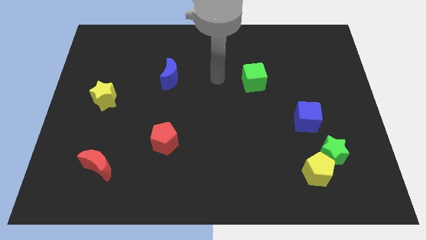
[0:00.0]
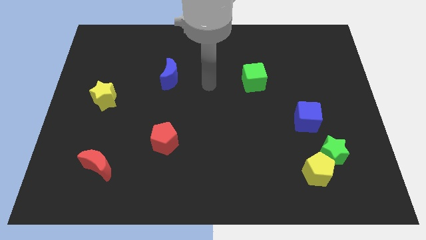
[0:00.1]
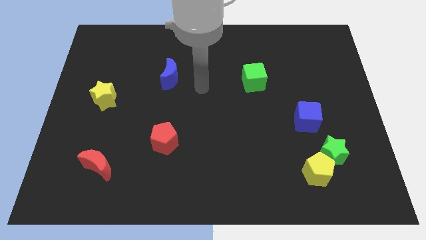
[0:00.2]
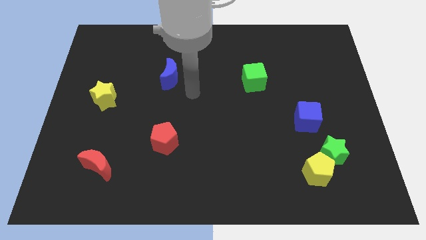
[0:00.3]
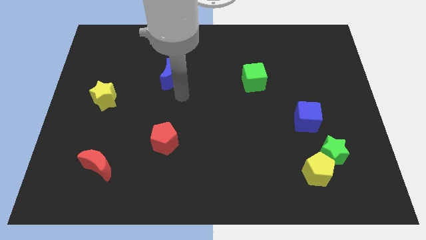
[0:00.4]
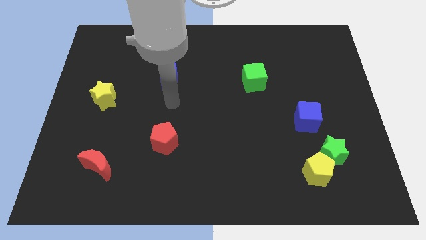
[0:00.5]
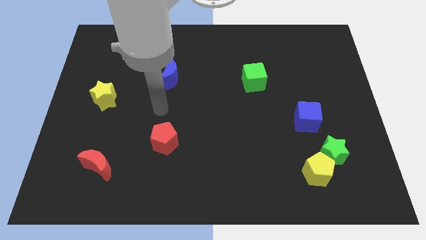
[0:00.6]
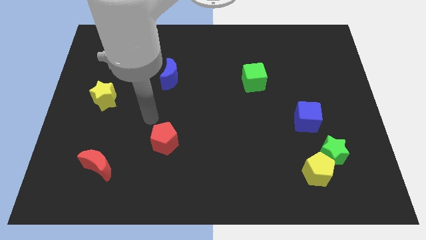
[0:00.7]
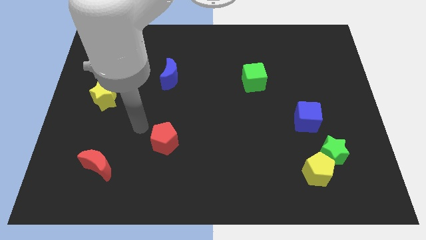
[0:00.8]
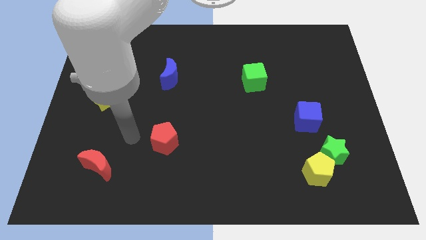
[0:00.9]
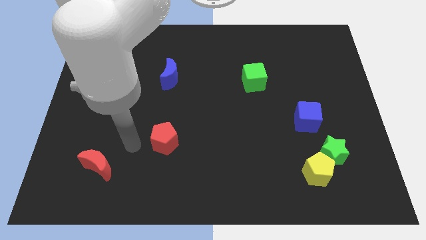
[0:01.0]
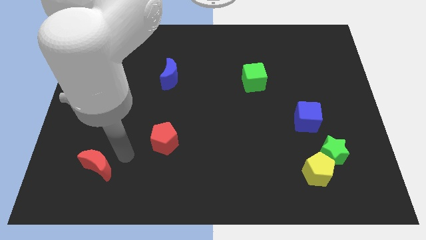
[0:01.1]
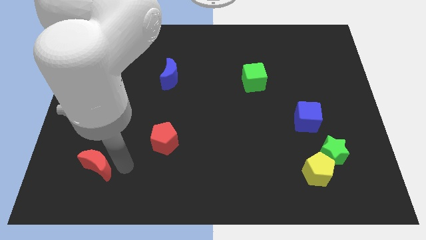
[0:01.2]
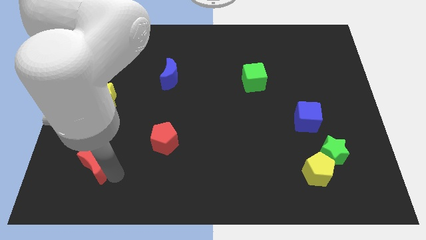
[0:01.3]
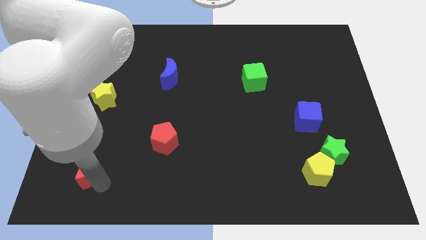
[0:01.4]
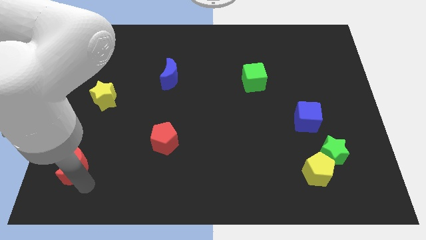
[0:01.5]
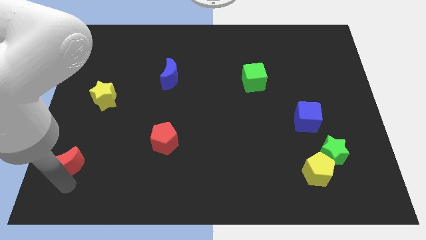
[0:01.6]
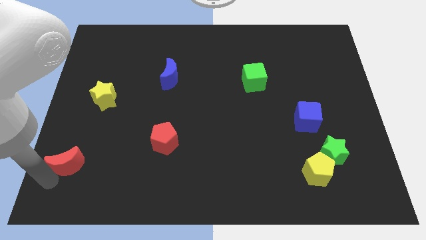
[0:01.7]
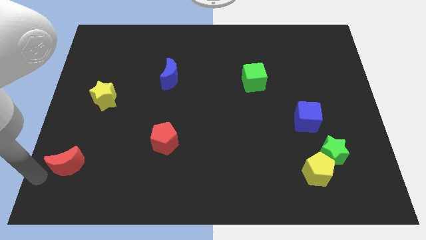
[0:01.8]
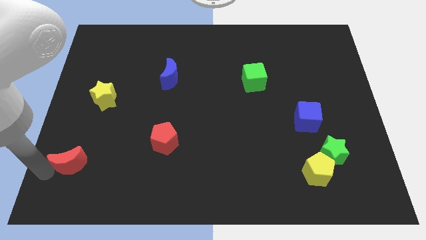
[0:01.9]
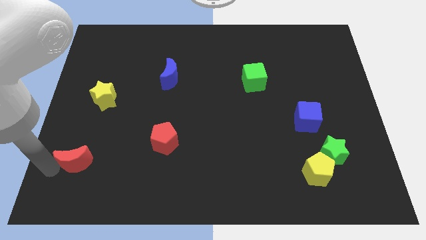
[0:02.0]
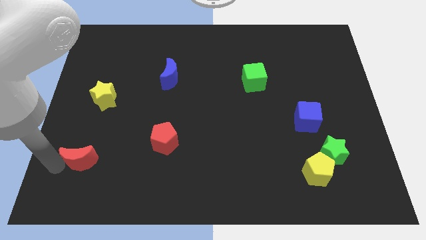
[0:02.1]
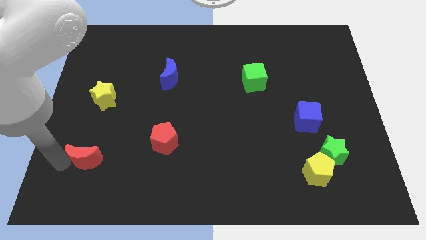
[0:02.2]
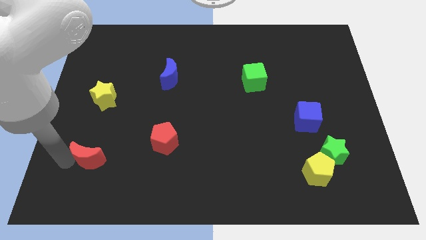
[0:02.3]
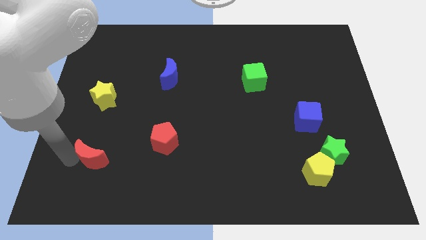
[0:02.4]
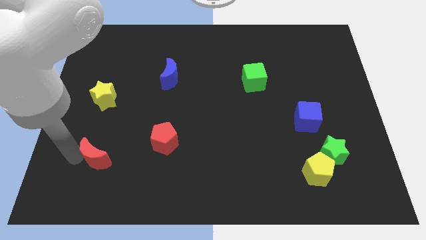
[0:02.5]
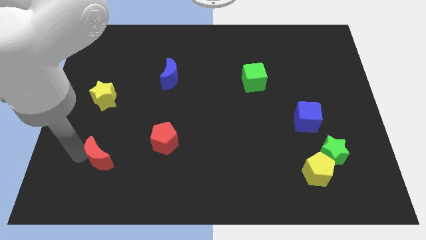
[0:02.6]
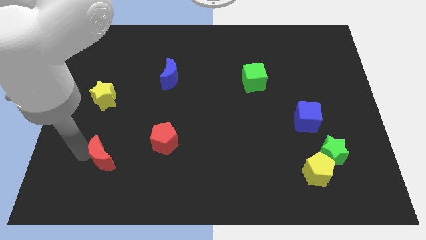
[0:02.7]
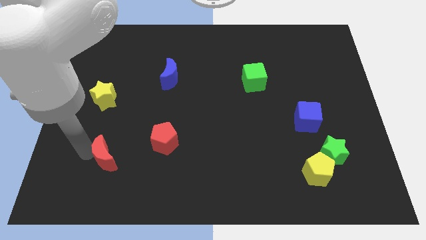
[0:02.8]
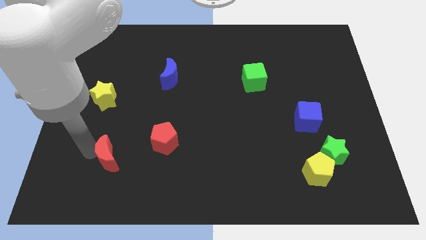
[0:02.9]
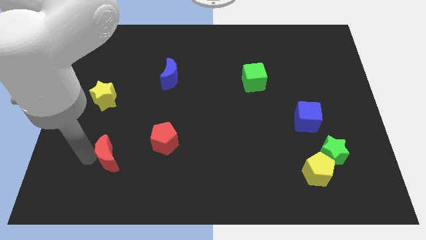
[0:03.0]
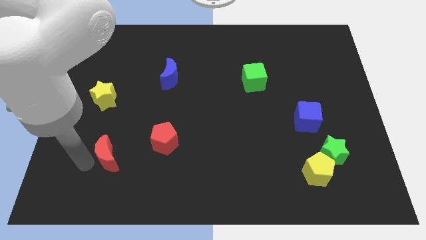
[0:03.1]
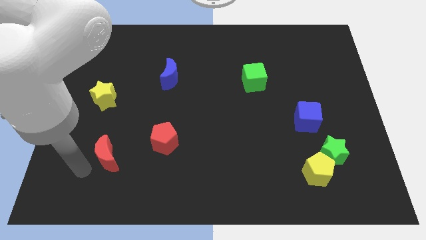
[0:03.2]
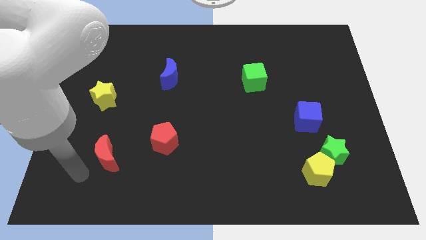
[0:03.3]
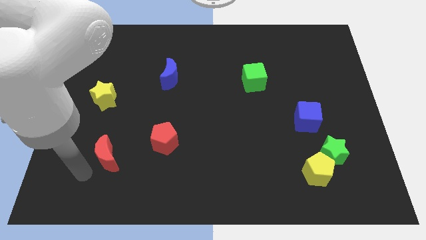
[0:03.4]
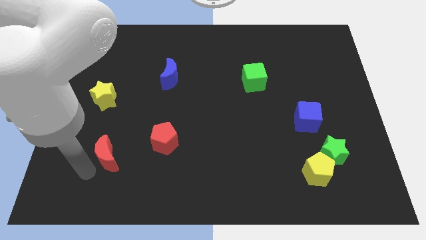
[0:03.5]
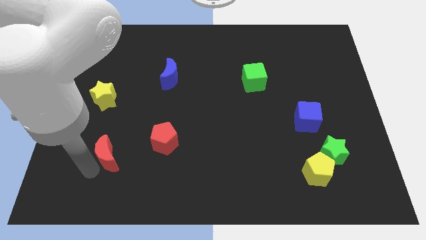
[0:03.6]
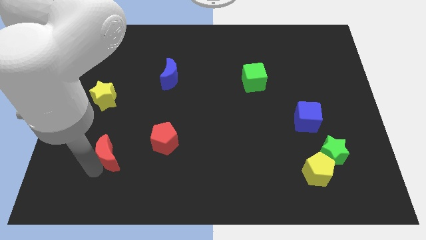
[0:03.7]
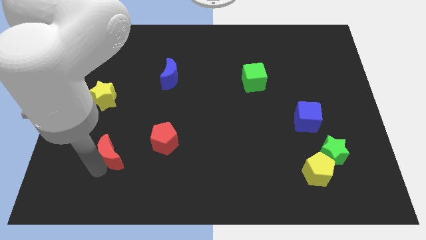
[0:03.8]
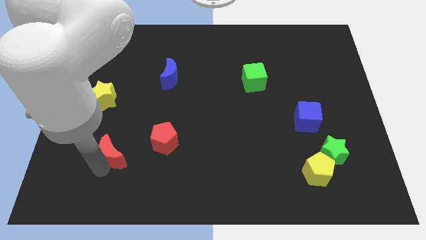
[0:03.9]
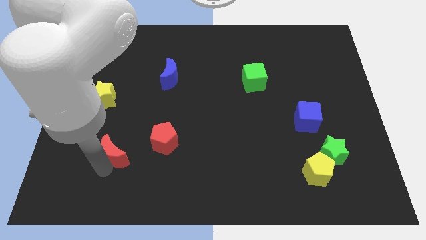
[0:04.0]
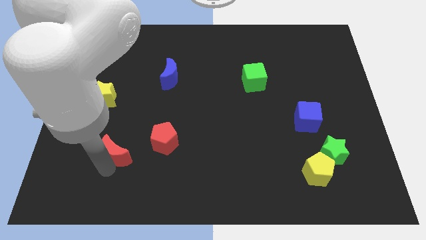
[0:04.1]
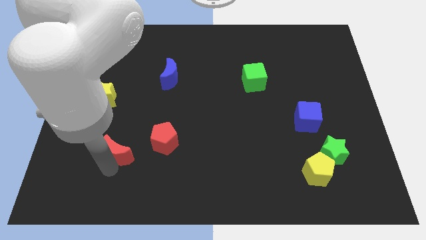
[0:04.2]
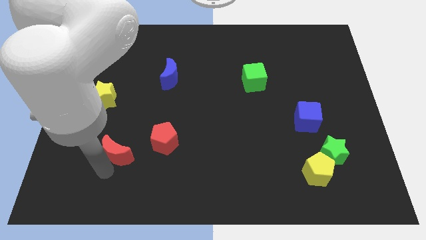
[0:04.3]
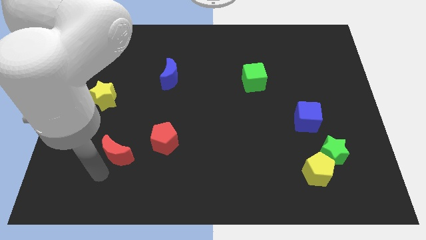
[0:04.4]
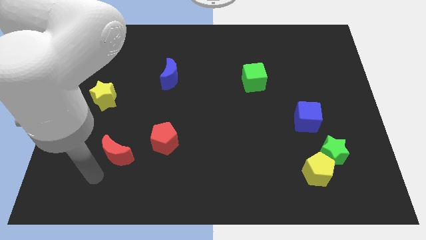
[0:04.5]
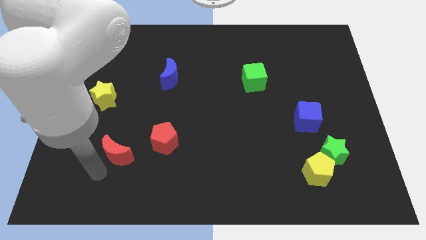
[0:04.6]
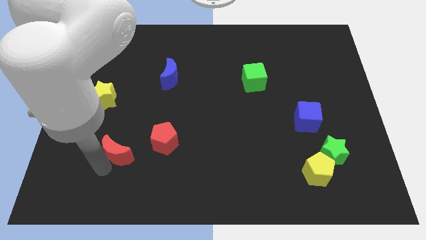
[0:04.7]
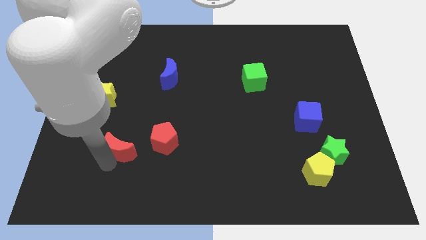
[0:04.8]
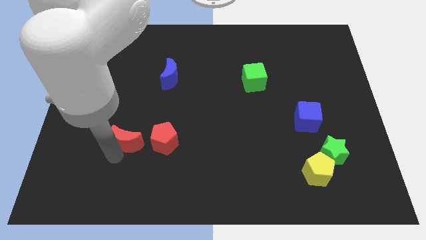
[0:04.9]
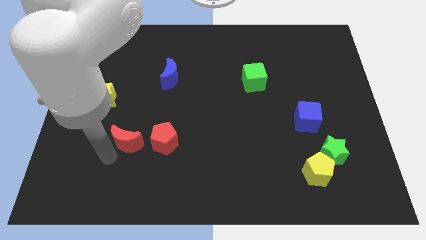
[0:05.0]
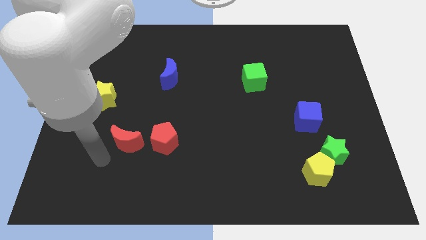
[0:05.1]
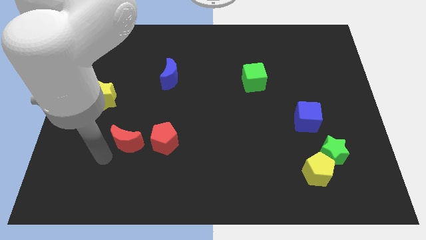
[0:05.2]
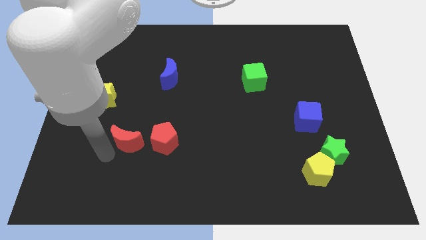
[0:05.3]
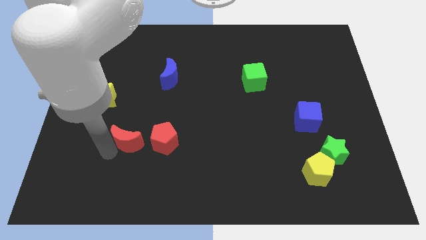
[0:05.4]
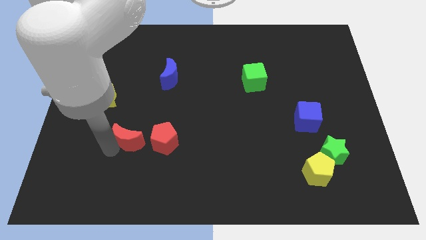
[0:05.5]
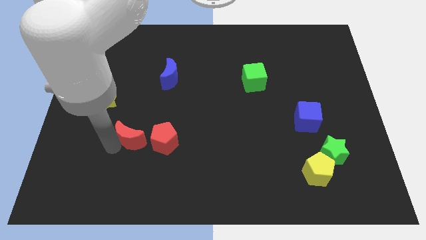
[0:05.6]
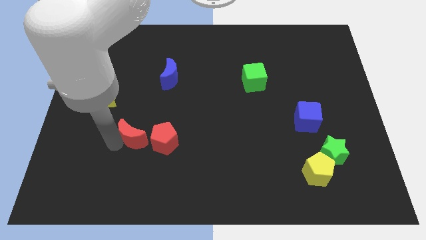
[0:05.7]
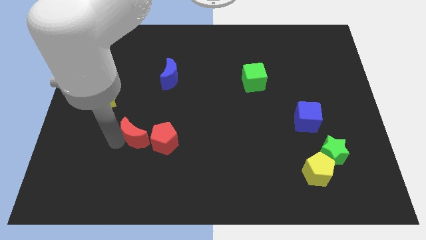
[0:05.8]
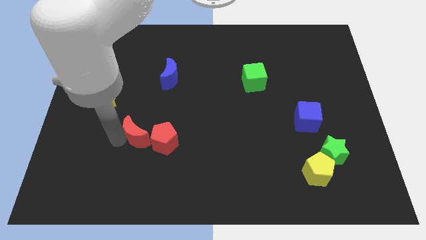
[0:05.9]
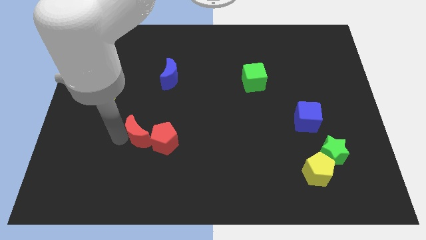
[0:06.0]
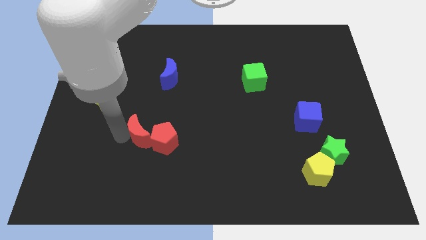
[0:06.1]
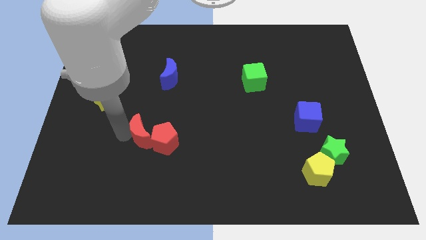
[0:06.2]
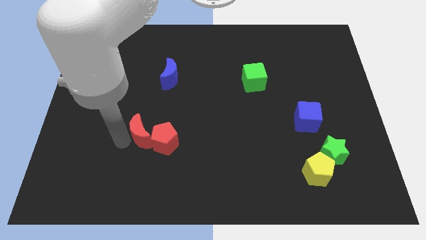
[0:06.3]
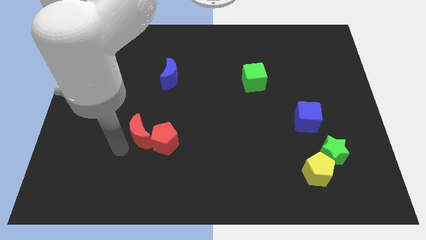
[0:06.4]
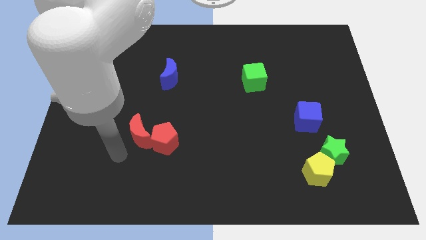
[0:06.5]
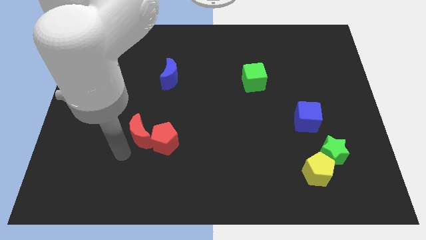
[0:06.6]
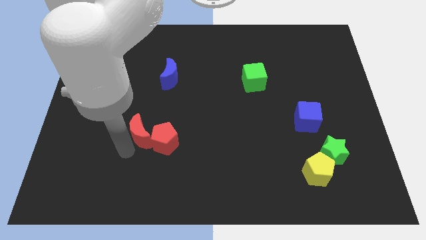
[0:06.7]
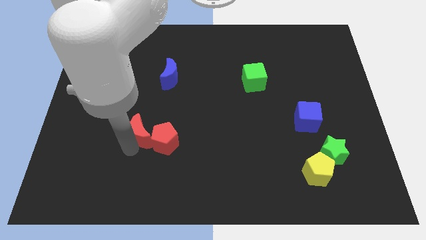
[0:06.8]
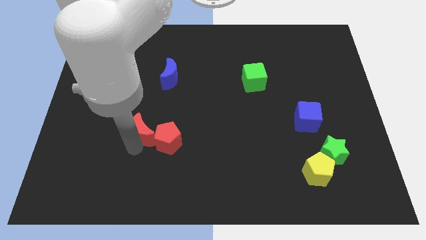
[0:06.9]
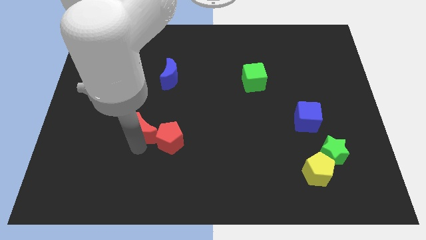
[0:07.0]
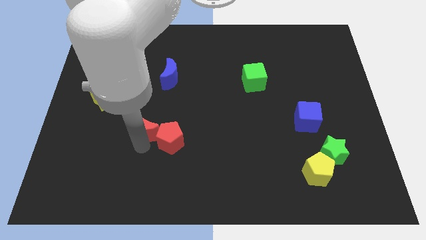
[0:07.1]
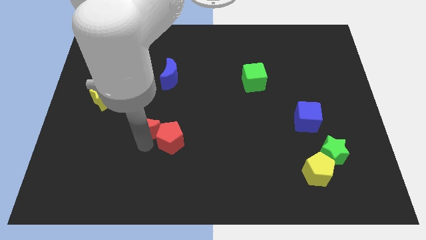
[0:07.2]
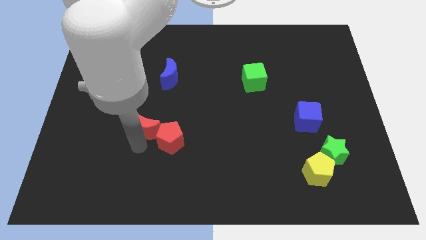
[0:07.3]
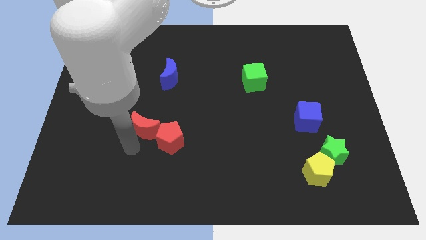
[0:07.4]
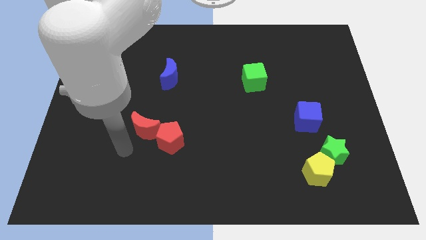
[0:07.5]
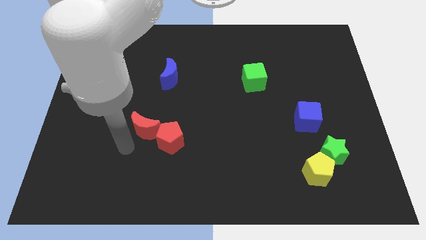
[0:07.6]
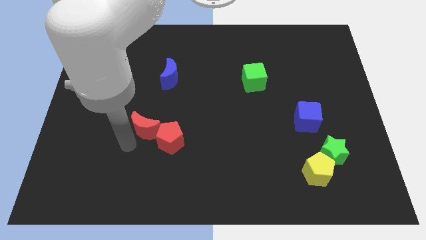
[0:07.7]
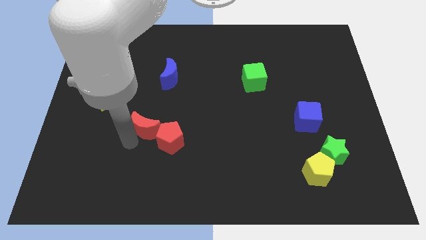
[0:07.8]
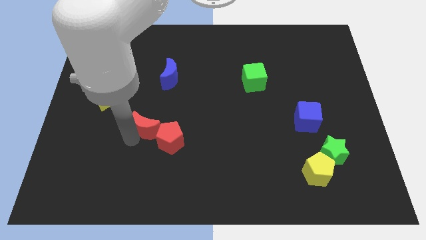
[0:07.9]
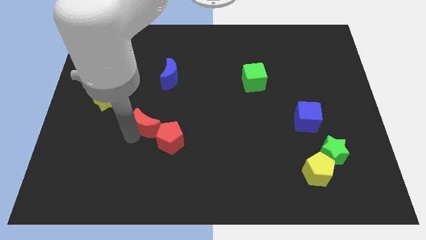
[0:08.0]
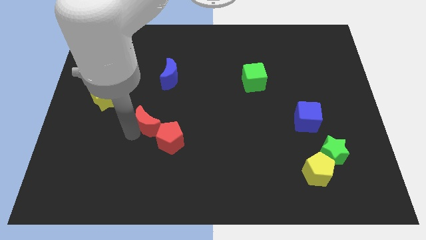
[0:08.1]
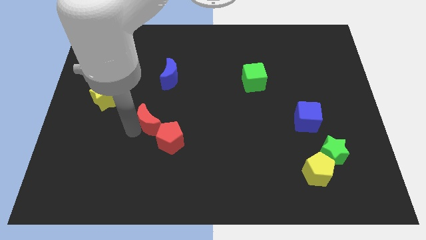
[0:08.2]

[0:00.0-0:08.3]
move the red moon below the blue moon
